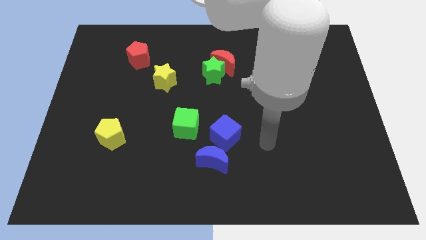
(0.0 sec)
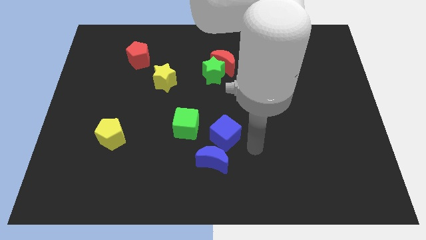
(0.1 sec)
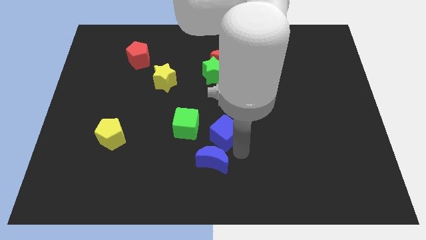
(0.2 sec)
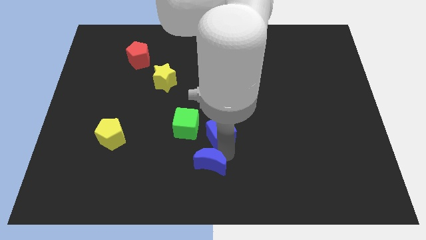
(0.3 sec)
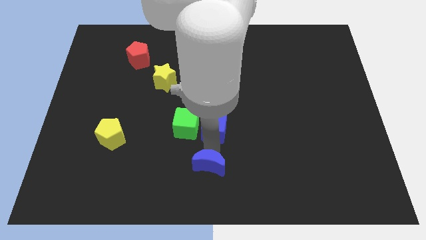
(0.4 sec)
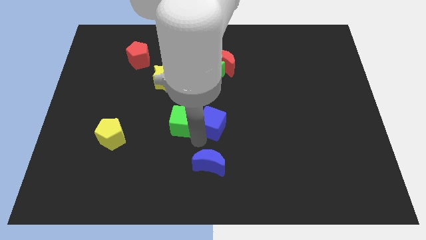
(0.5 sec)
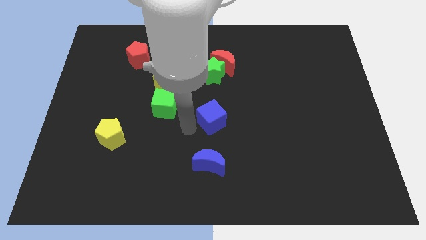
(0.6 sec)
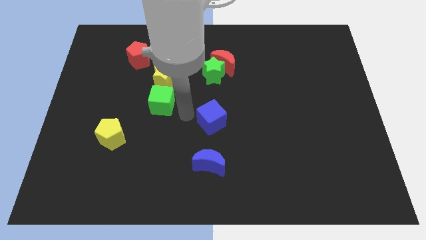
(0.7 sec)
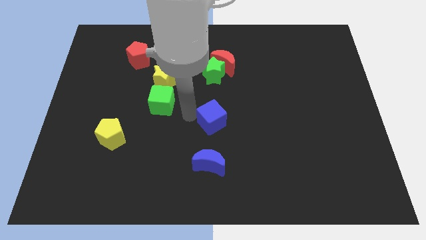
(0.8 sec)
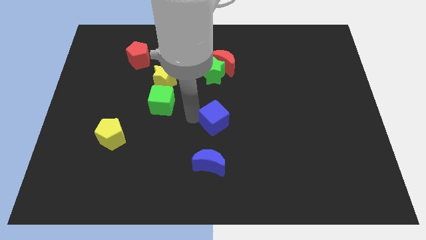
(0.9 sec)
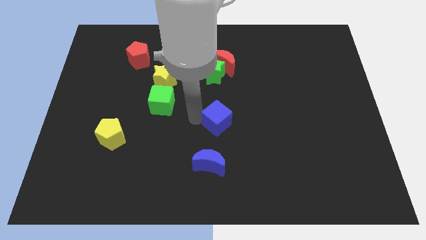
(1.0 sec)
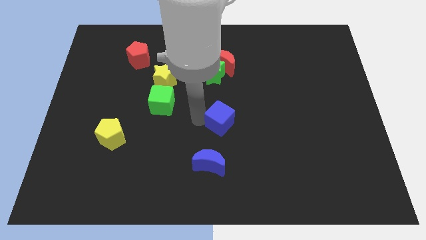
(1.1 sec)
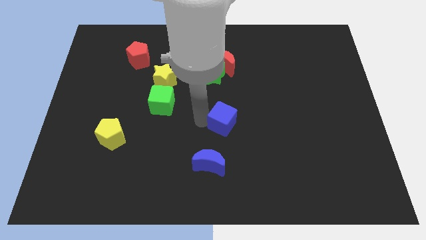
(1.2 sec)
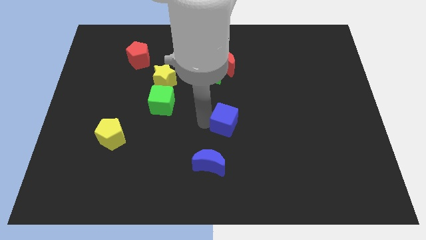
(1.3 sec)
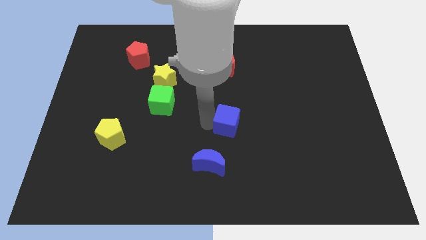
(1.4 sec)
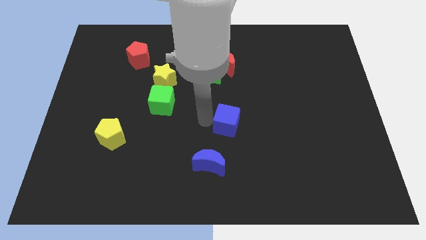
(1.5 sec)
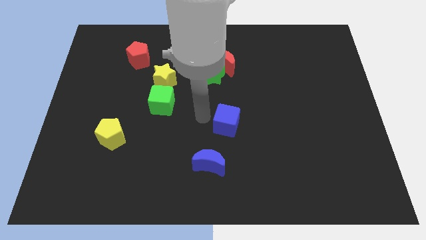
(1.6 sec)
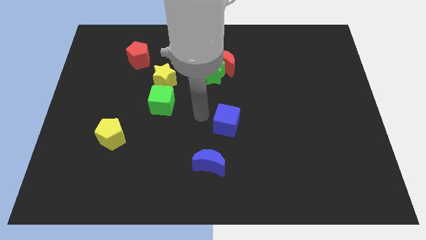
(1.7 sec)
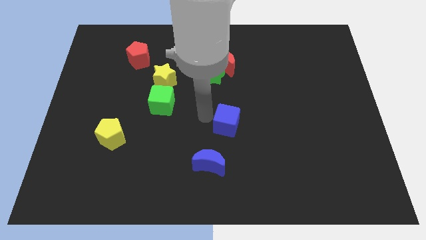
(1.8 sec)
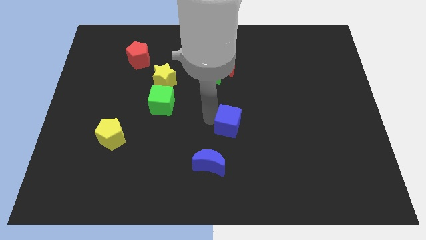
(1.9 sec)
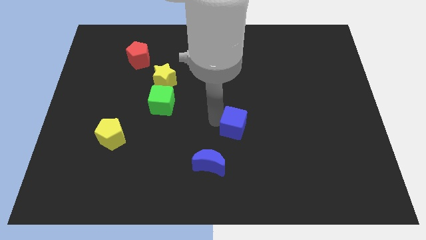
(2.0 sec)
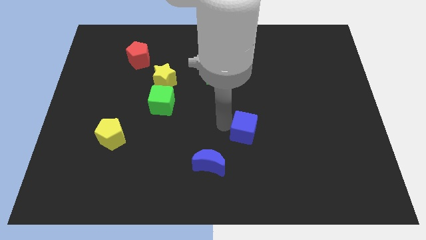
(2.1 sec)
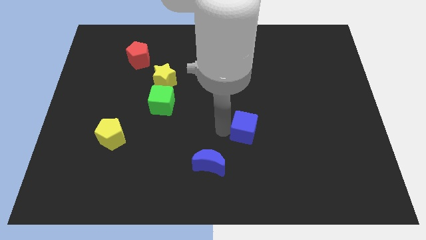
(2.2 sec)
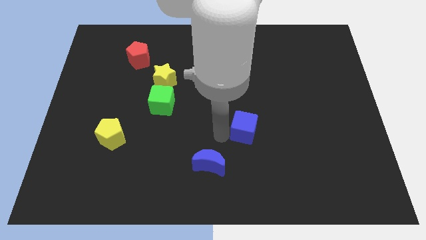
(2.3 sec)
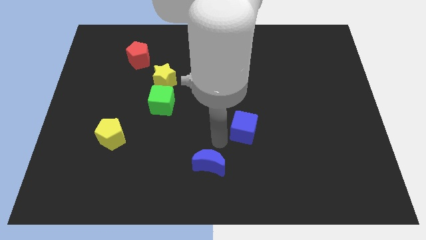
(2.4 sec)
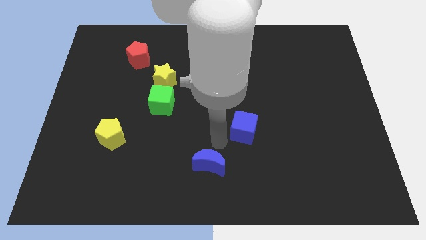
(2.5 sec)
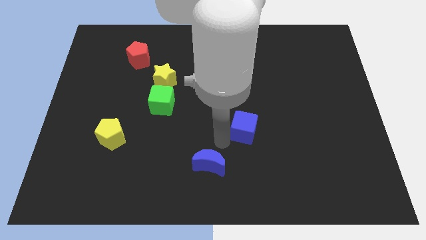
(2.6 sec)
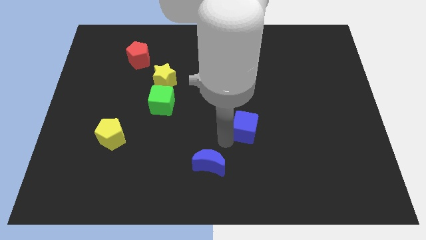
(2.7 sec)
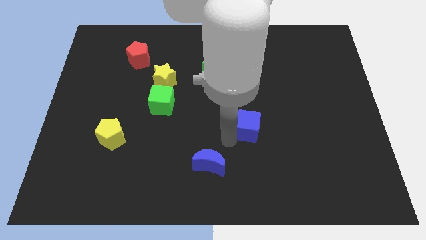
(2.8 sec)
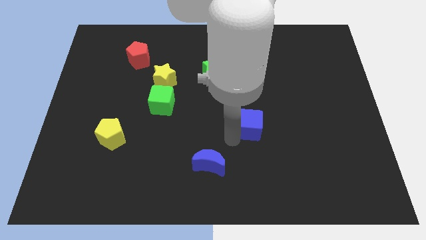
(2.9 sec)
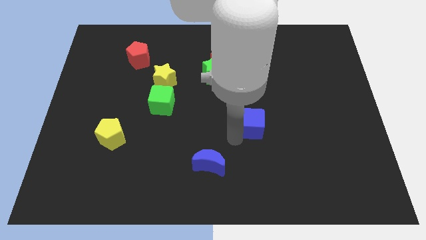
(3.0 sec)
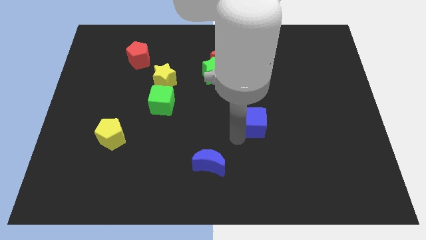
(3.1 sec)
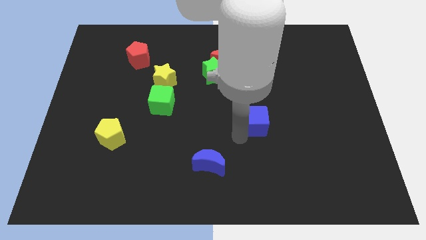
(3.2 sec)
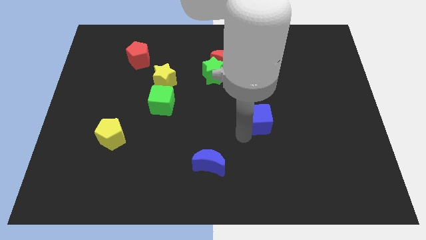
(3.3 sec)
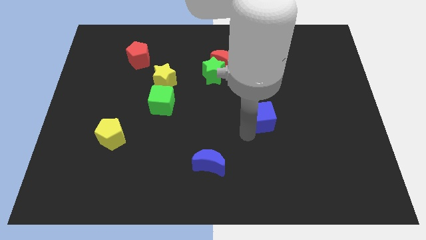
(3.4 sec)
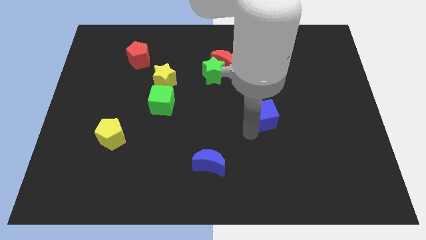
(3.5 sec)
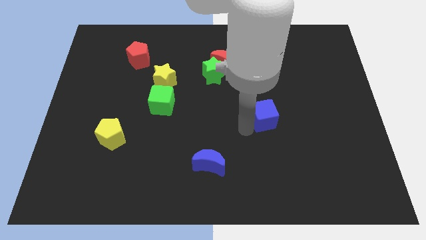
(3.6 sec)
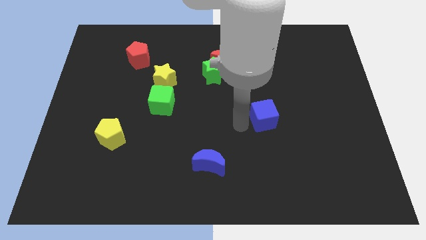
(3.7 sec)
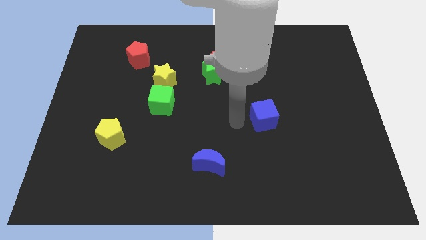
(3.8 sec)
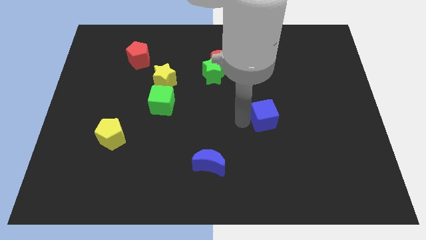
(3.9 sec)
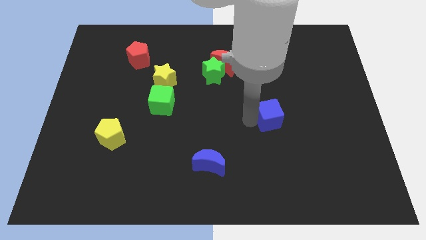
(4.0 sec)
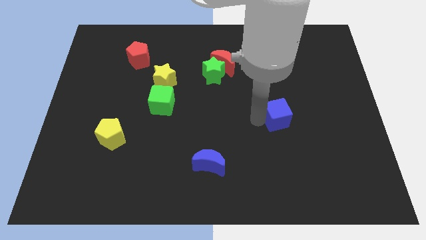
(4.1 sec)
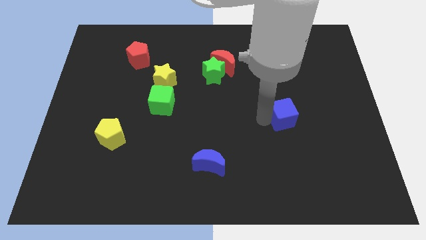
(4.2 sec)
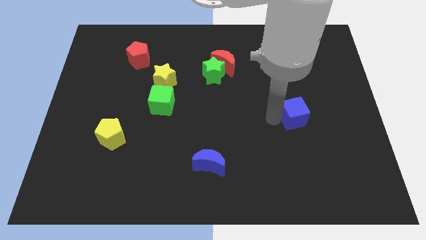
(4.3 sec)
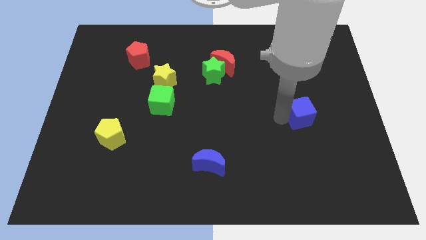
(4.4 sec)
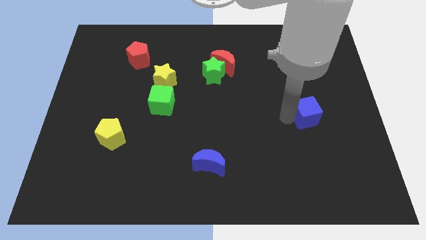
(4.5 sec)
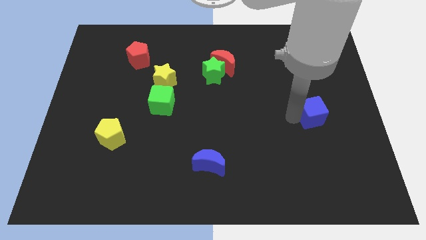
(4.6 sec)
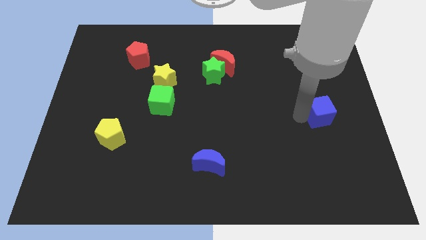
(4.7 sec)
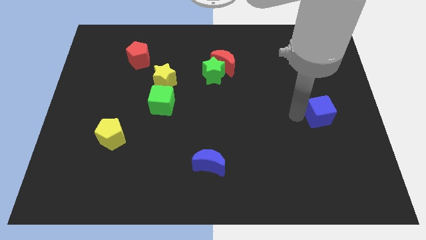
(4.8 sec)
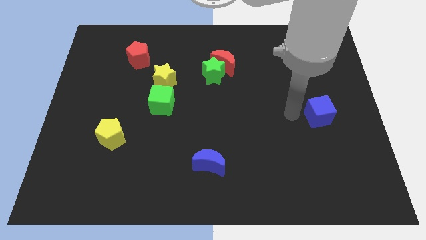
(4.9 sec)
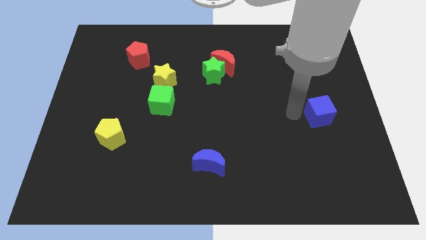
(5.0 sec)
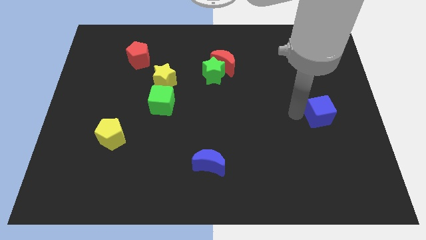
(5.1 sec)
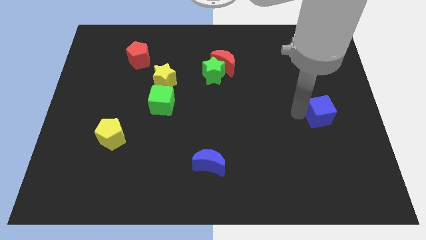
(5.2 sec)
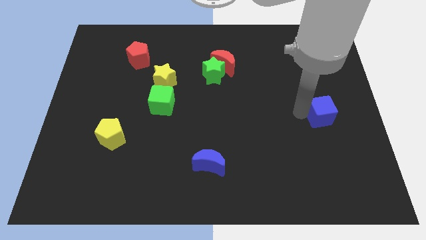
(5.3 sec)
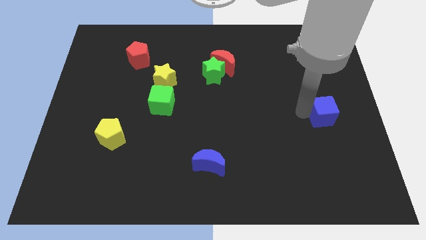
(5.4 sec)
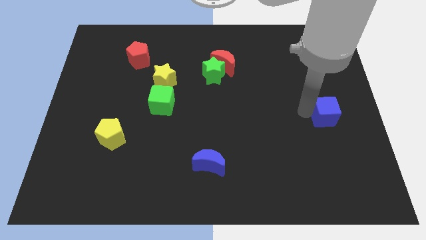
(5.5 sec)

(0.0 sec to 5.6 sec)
move the blue cube to the right side of the board

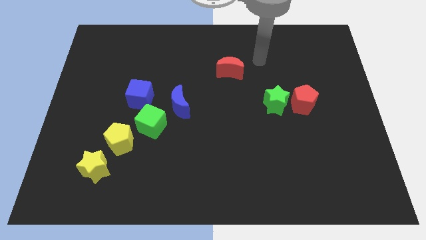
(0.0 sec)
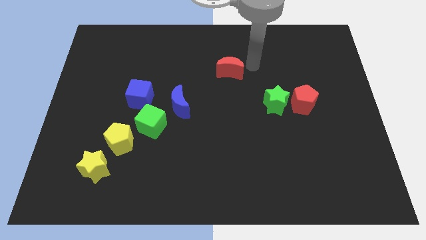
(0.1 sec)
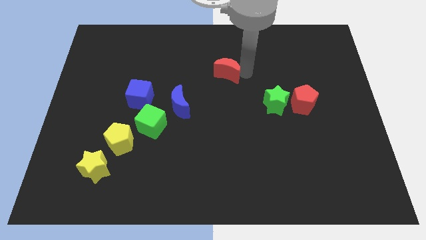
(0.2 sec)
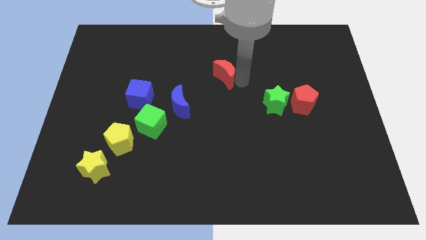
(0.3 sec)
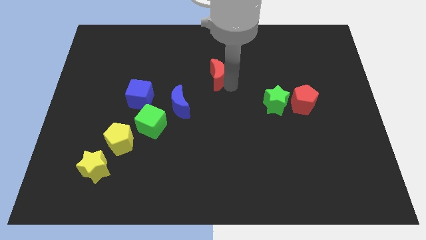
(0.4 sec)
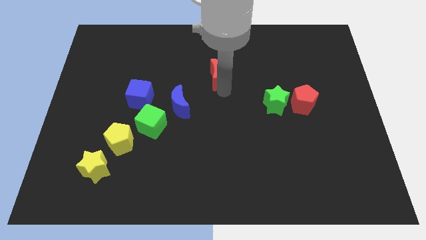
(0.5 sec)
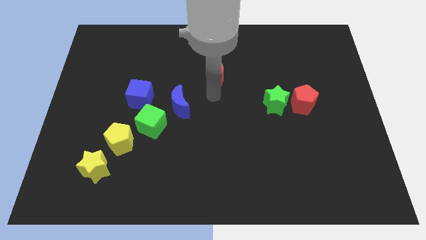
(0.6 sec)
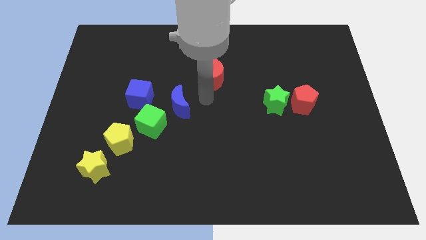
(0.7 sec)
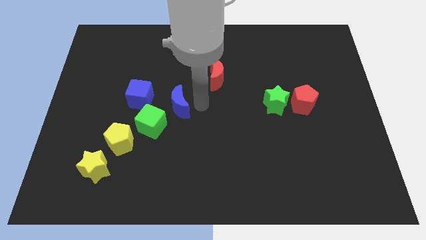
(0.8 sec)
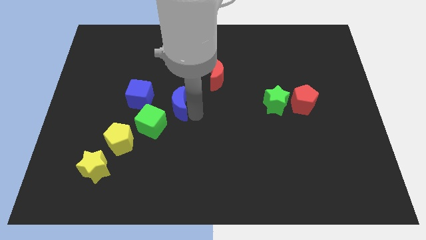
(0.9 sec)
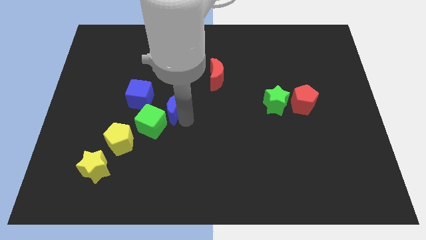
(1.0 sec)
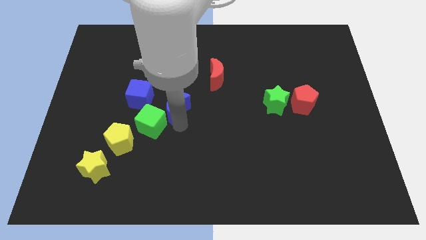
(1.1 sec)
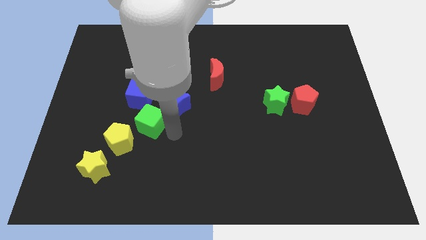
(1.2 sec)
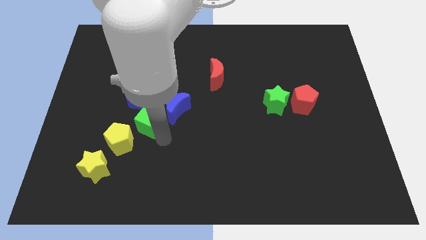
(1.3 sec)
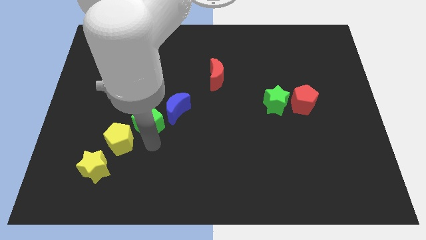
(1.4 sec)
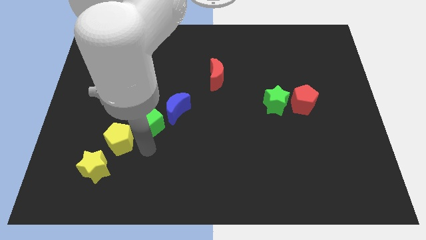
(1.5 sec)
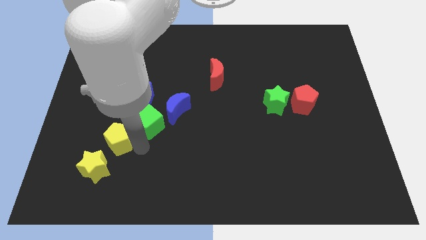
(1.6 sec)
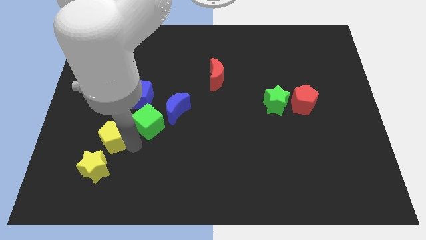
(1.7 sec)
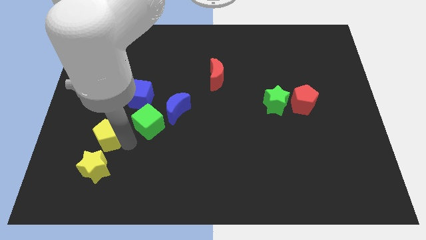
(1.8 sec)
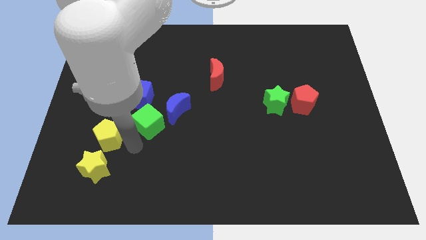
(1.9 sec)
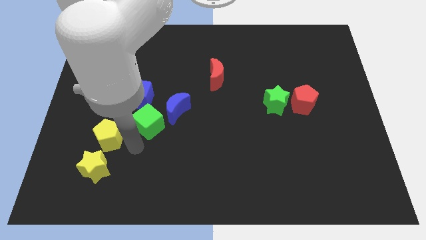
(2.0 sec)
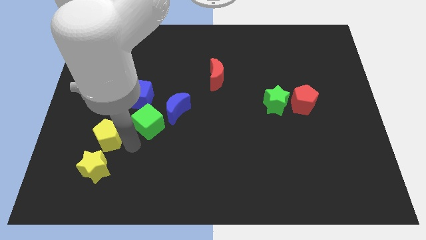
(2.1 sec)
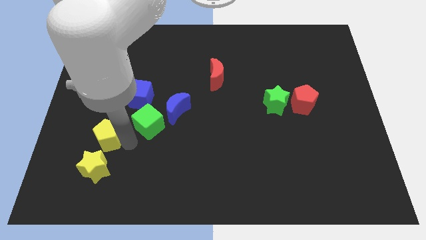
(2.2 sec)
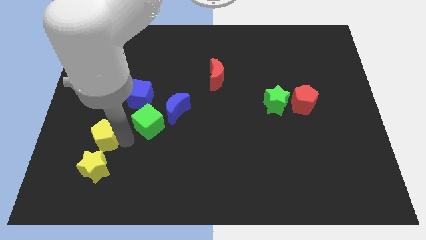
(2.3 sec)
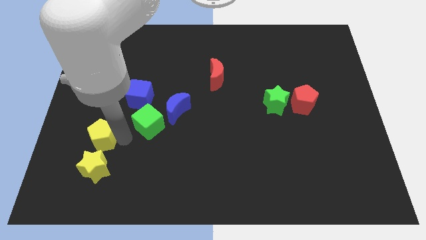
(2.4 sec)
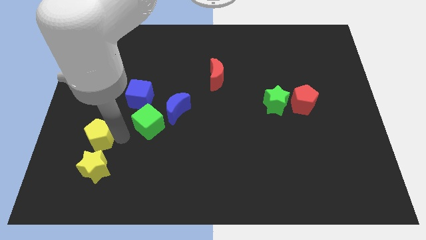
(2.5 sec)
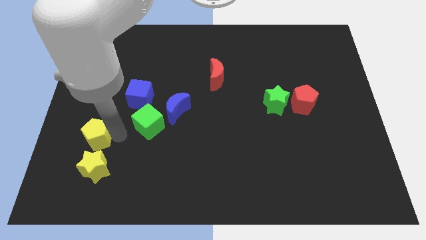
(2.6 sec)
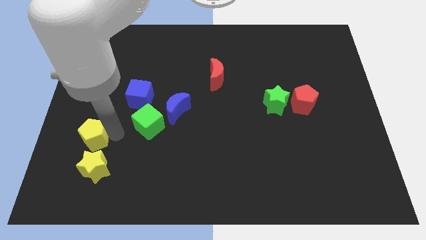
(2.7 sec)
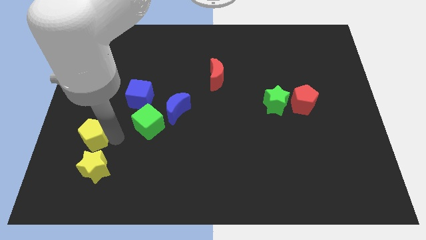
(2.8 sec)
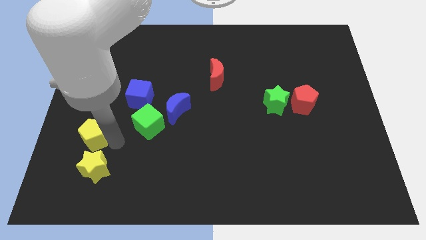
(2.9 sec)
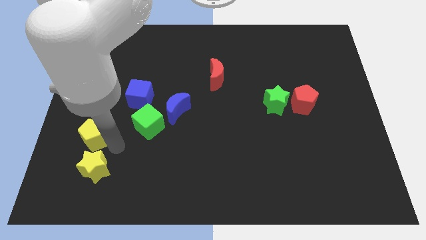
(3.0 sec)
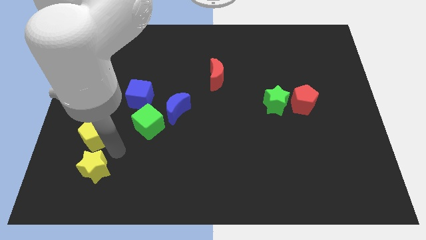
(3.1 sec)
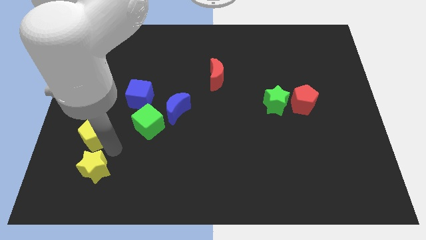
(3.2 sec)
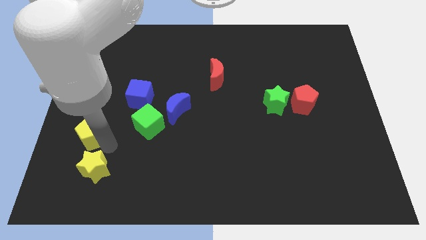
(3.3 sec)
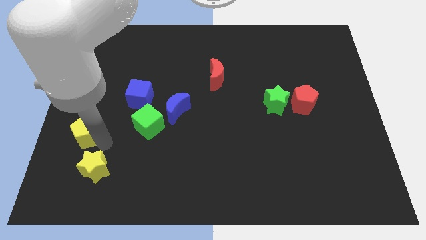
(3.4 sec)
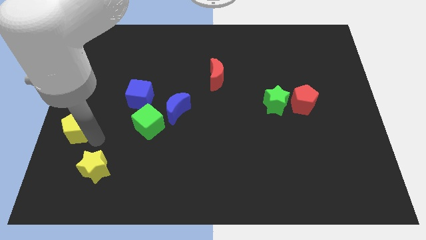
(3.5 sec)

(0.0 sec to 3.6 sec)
move the yellow pentagon to the center left
